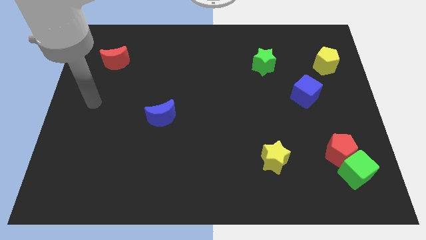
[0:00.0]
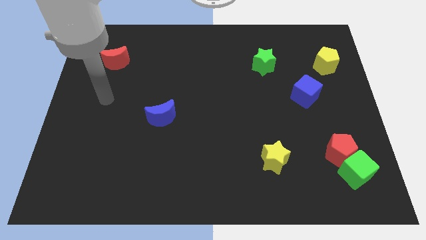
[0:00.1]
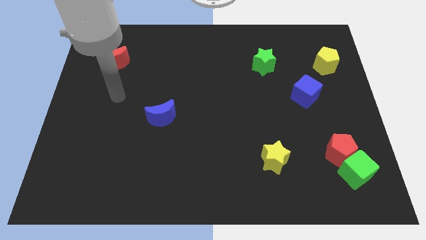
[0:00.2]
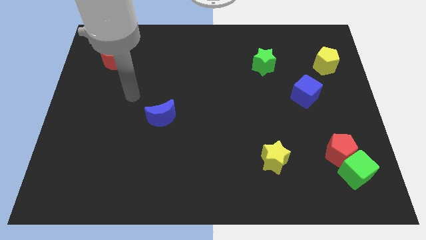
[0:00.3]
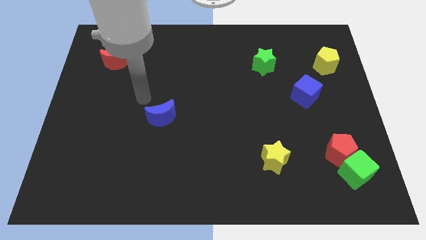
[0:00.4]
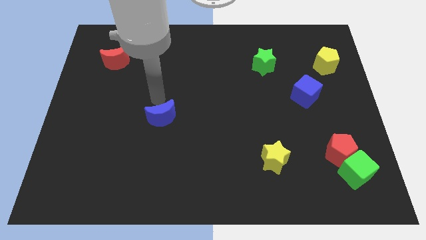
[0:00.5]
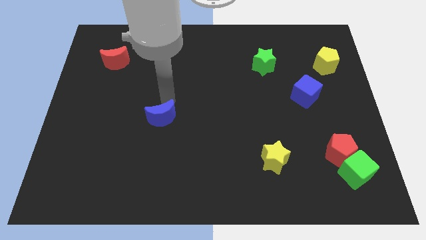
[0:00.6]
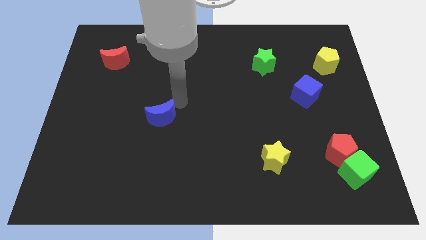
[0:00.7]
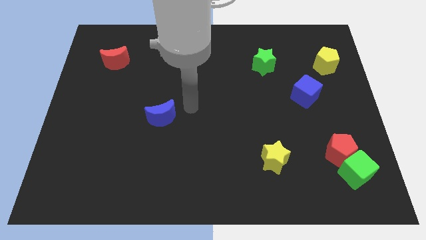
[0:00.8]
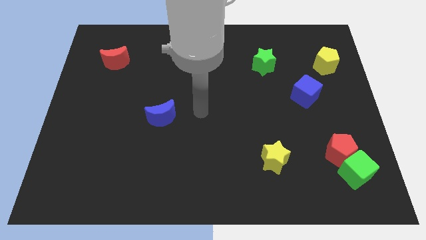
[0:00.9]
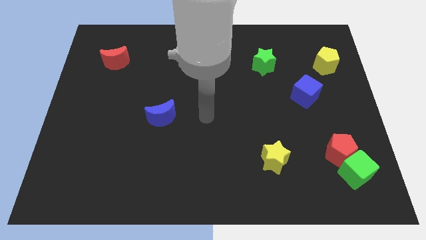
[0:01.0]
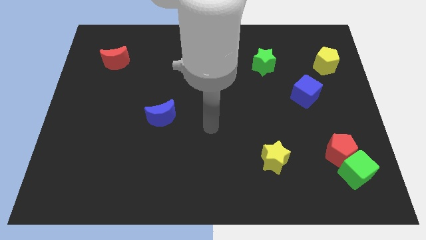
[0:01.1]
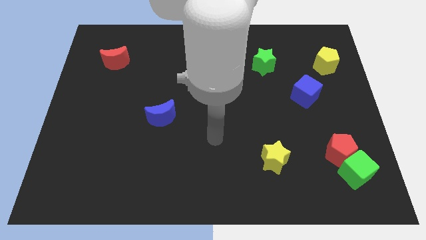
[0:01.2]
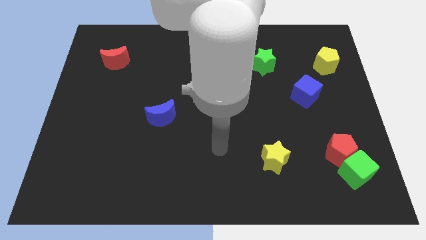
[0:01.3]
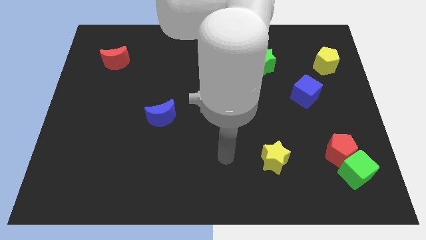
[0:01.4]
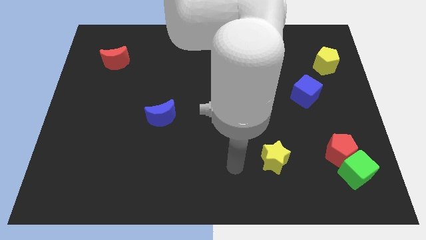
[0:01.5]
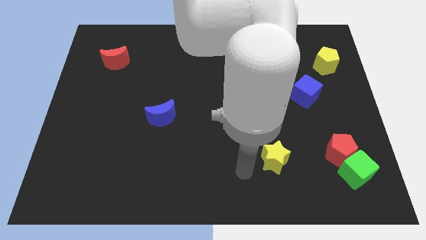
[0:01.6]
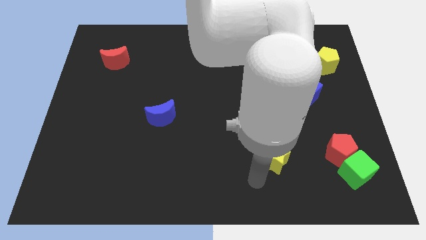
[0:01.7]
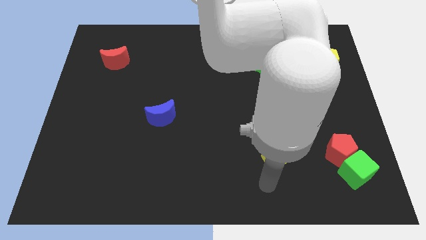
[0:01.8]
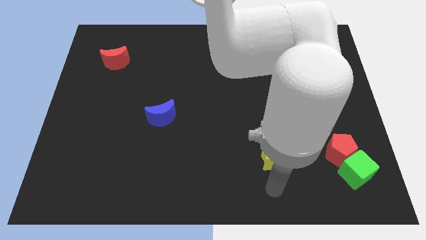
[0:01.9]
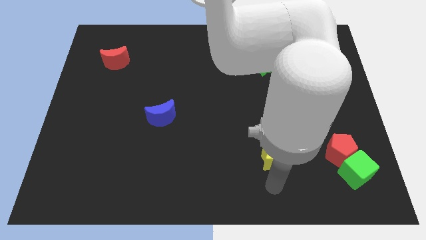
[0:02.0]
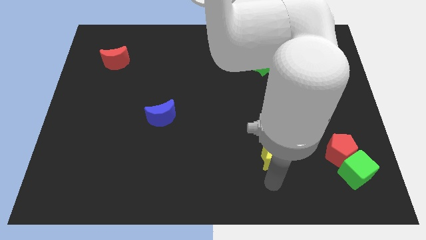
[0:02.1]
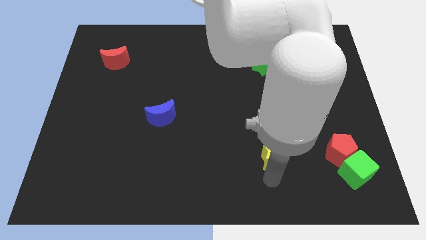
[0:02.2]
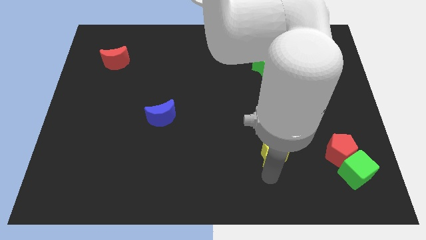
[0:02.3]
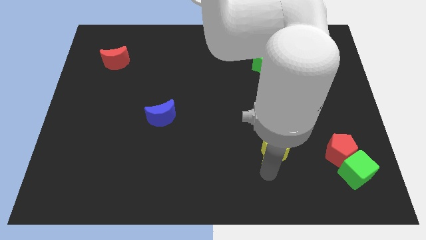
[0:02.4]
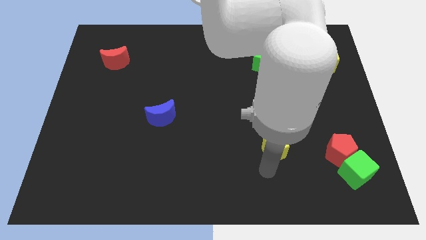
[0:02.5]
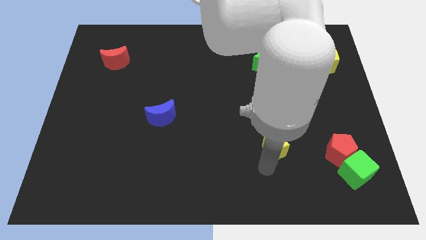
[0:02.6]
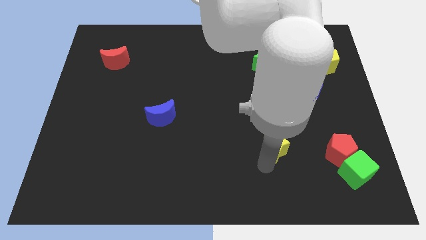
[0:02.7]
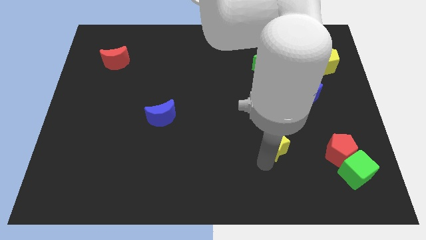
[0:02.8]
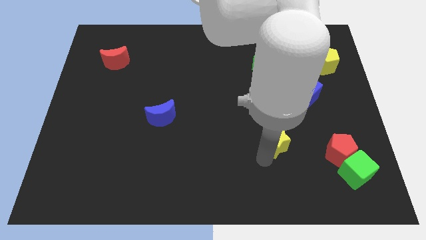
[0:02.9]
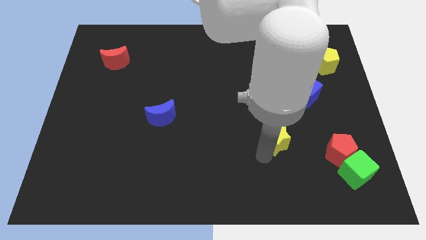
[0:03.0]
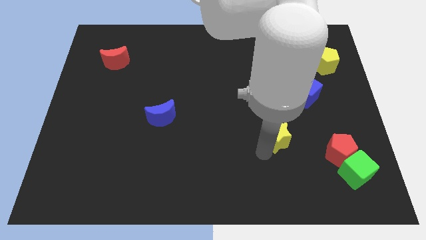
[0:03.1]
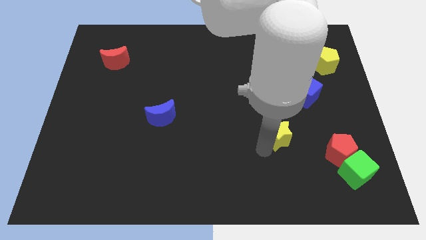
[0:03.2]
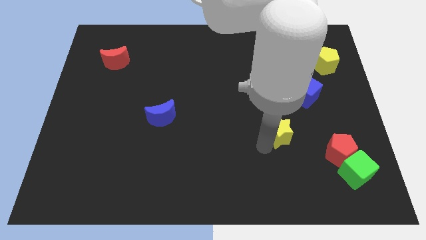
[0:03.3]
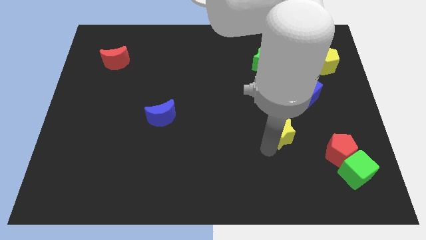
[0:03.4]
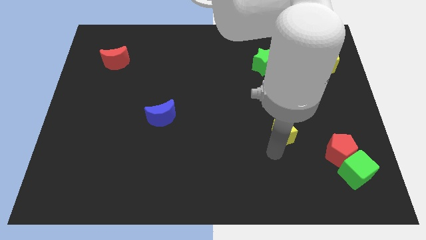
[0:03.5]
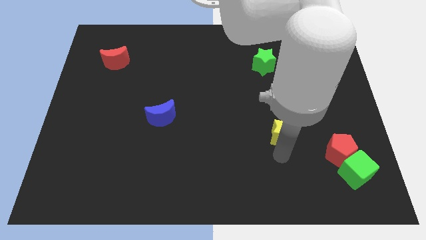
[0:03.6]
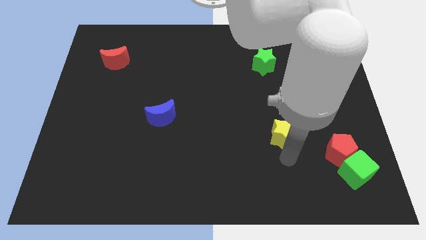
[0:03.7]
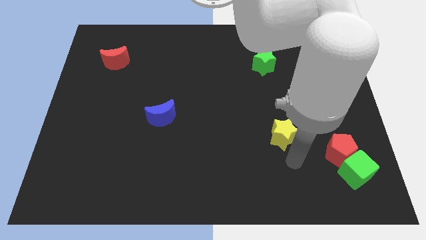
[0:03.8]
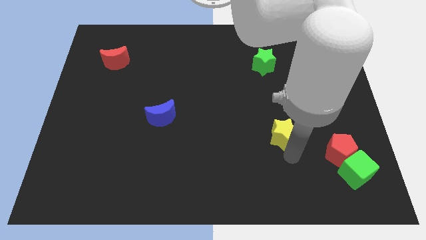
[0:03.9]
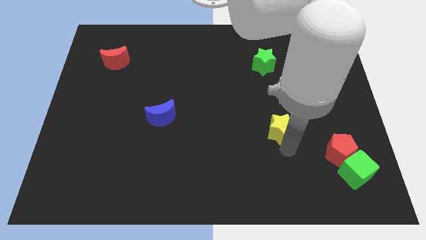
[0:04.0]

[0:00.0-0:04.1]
push the yellow star upwards somewhat

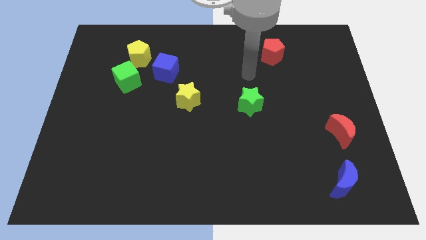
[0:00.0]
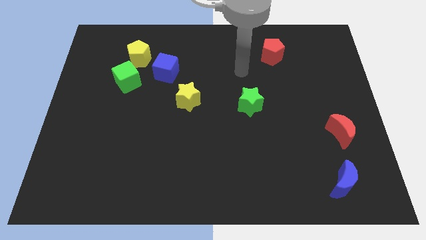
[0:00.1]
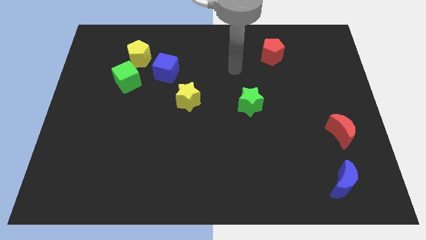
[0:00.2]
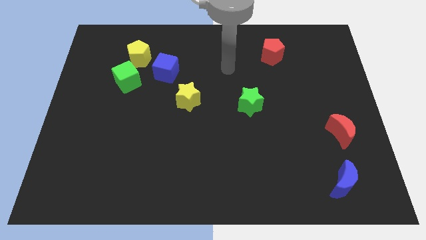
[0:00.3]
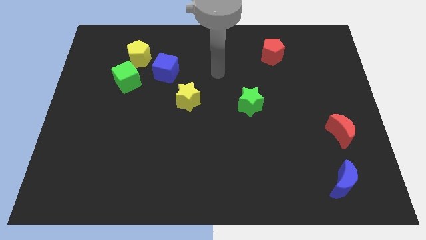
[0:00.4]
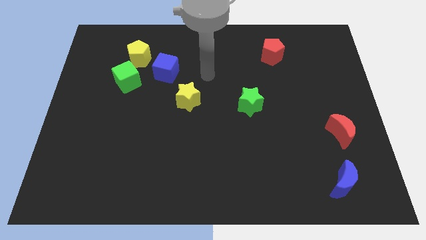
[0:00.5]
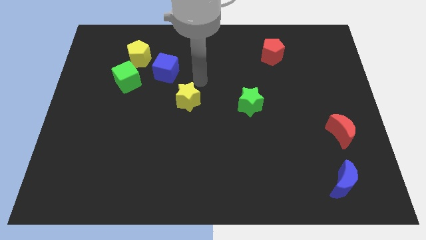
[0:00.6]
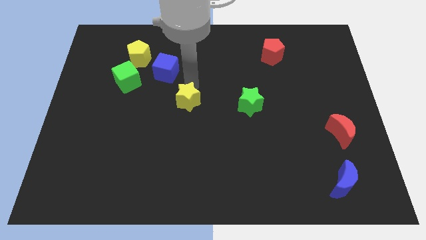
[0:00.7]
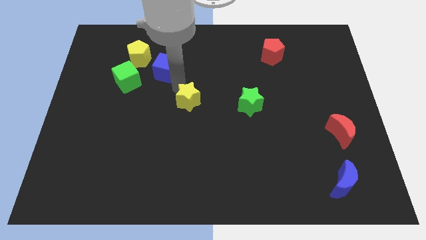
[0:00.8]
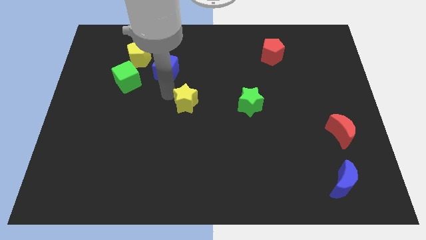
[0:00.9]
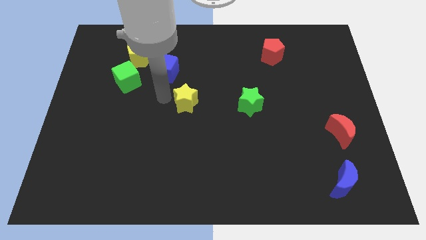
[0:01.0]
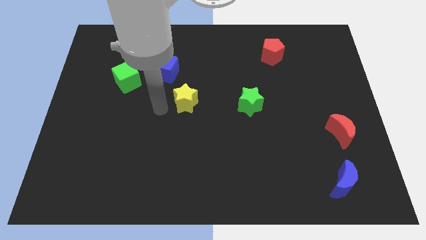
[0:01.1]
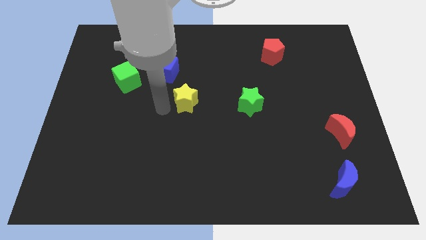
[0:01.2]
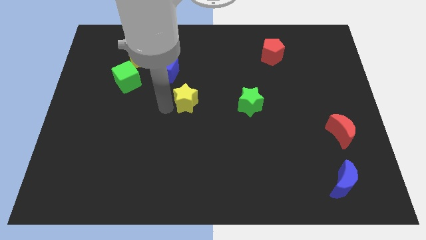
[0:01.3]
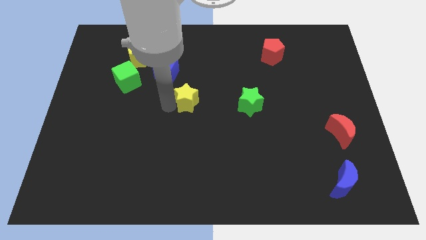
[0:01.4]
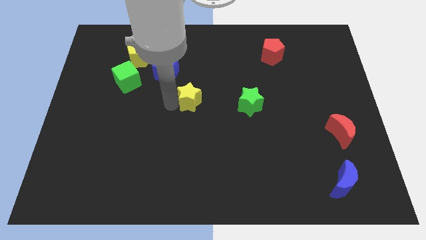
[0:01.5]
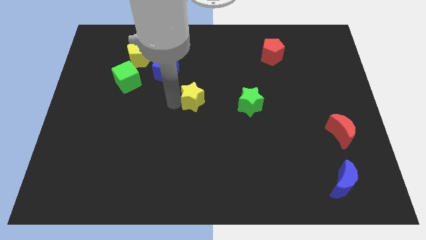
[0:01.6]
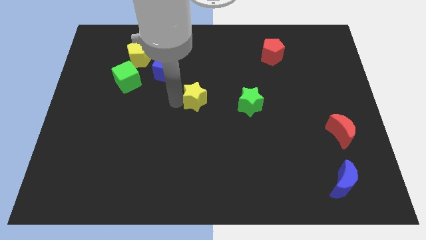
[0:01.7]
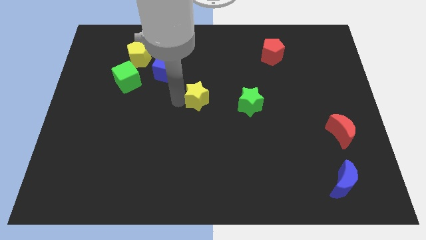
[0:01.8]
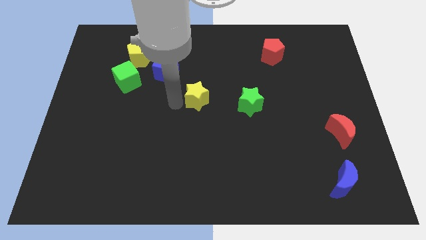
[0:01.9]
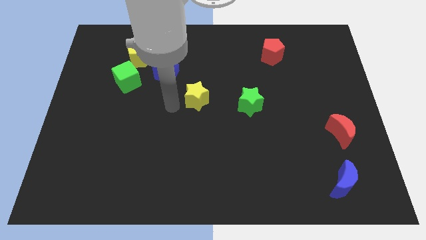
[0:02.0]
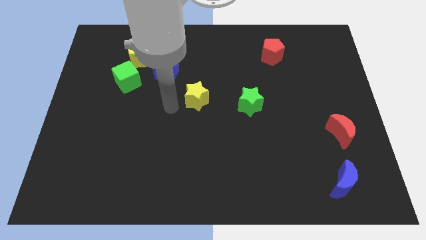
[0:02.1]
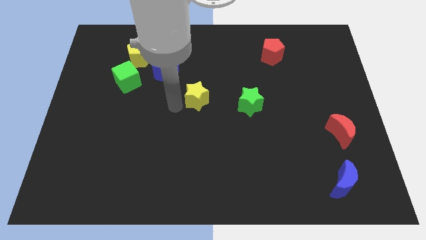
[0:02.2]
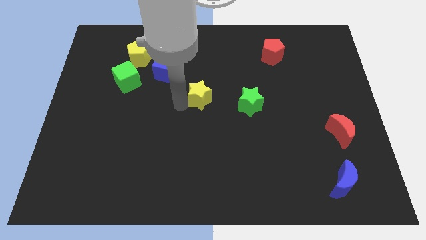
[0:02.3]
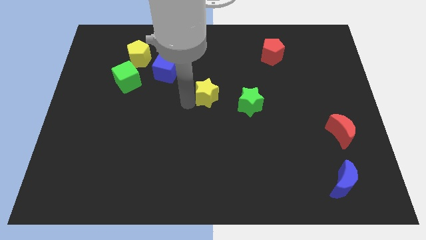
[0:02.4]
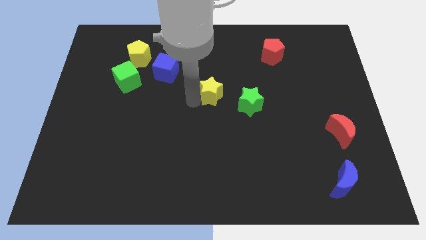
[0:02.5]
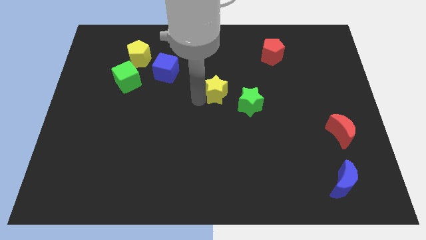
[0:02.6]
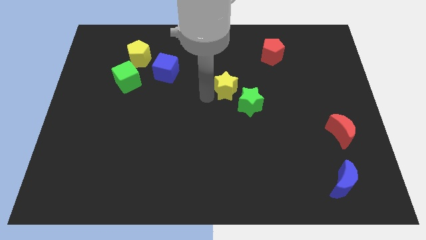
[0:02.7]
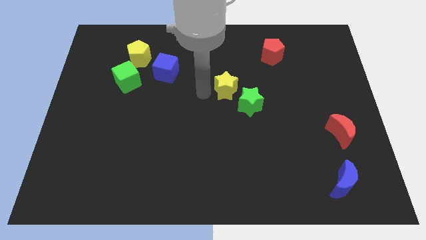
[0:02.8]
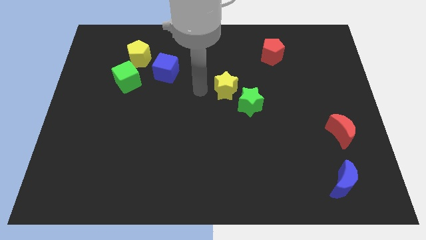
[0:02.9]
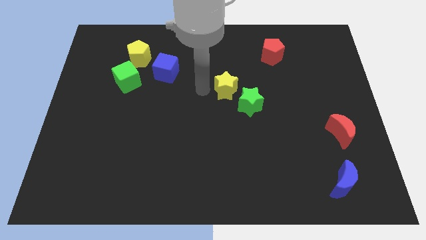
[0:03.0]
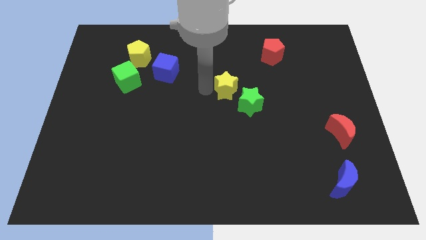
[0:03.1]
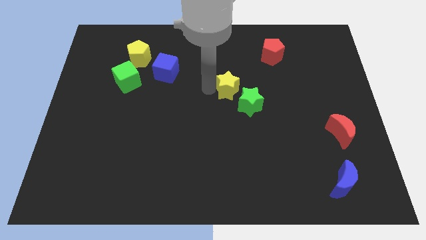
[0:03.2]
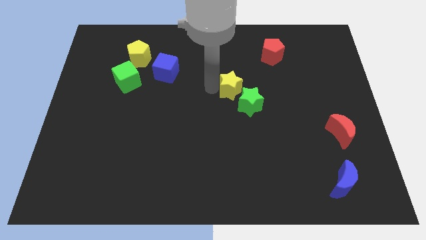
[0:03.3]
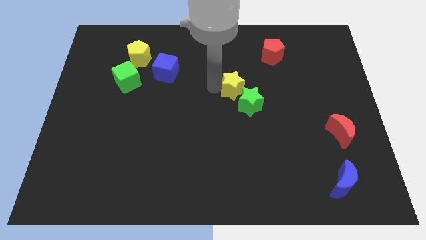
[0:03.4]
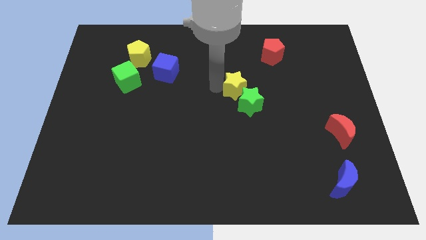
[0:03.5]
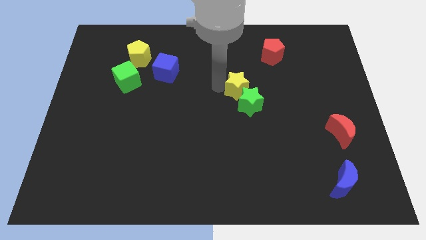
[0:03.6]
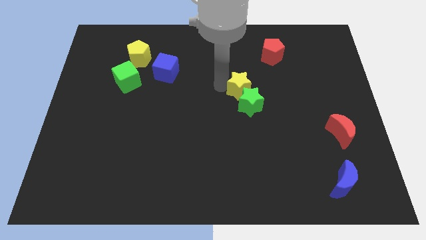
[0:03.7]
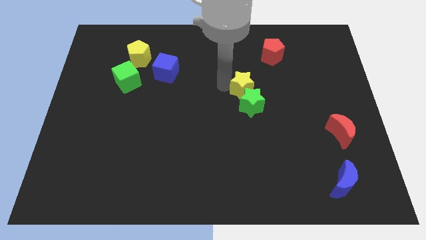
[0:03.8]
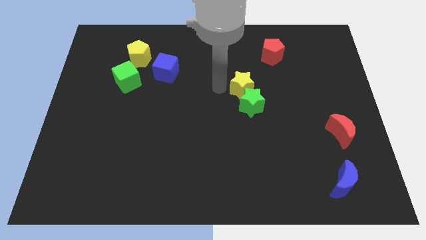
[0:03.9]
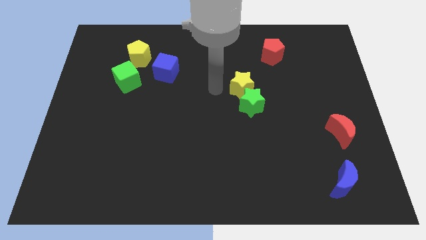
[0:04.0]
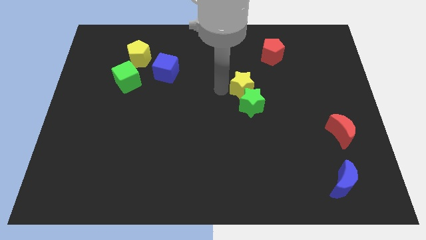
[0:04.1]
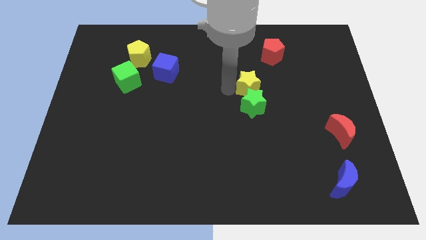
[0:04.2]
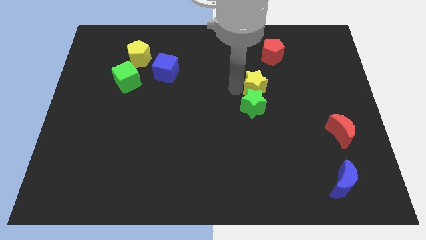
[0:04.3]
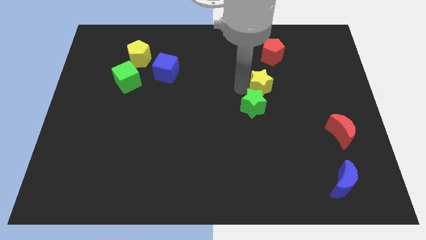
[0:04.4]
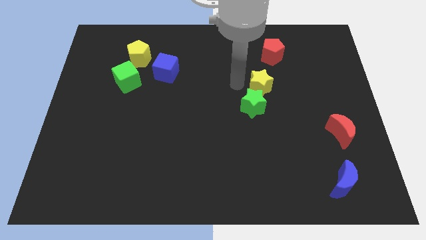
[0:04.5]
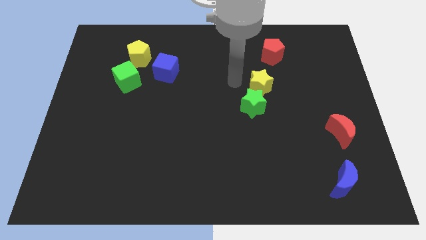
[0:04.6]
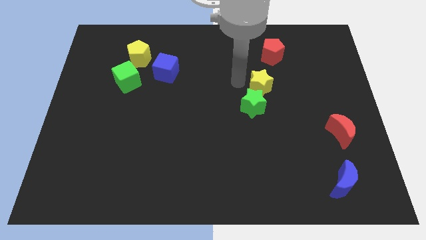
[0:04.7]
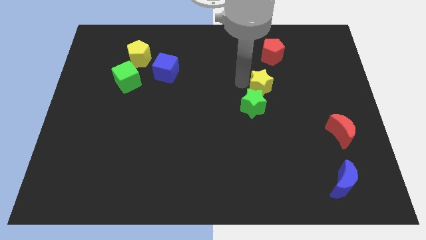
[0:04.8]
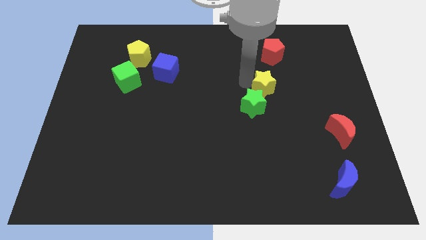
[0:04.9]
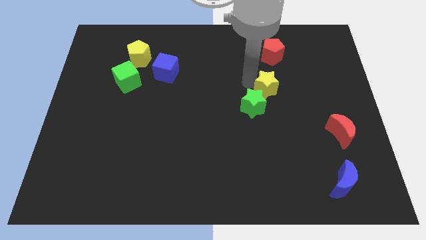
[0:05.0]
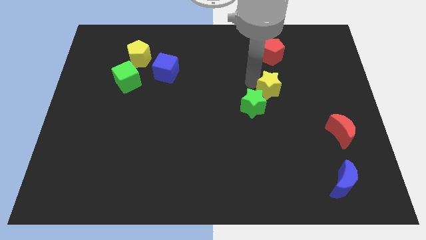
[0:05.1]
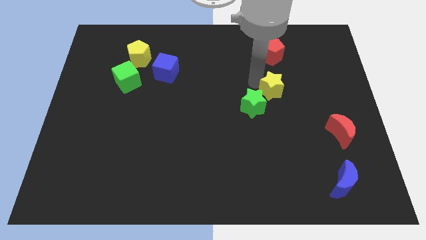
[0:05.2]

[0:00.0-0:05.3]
slide the yellow star to the right
